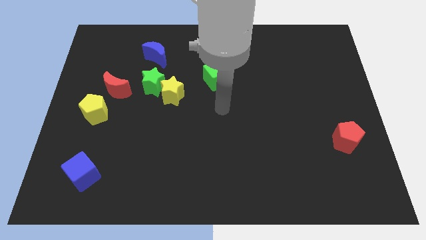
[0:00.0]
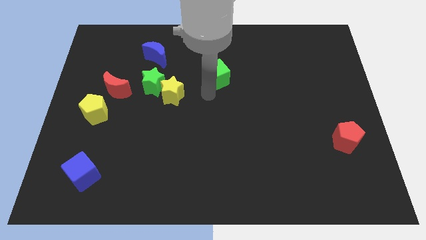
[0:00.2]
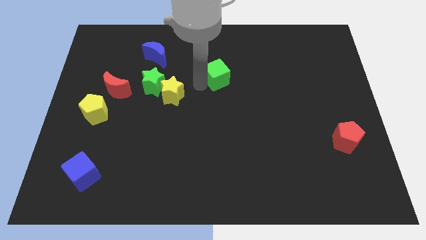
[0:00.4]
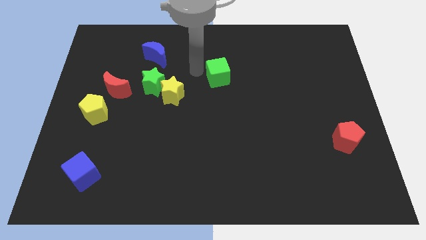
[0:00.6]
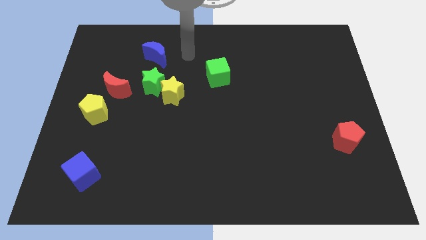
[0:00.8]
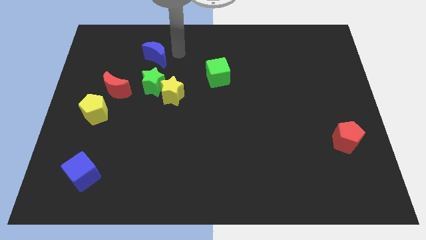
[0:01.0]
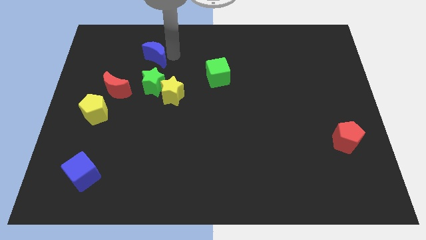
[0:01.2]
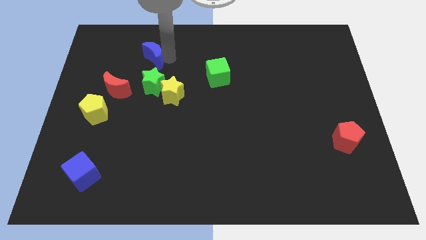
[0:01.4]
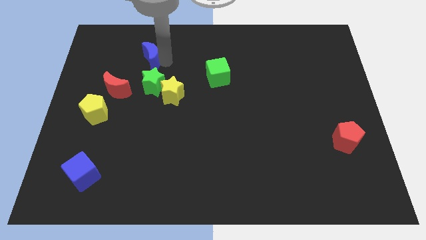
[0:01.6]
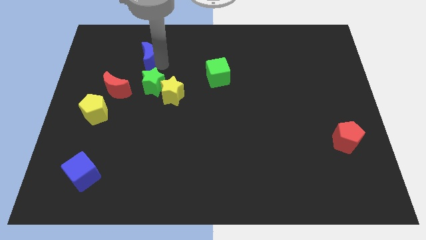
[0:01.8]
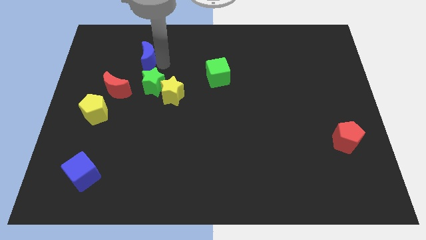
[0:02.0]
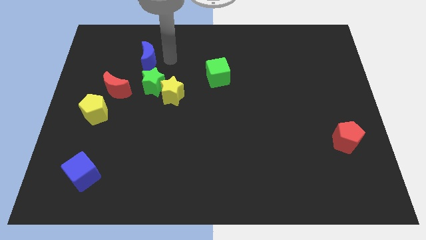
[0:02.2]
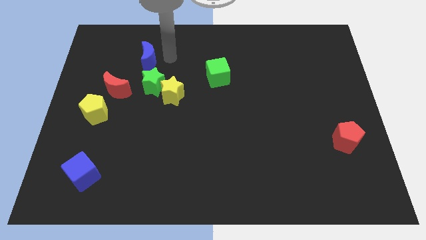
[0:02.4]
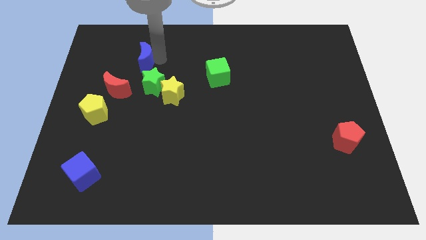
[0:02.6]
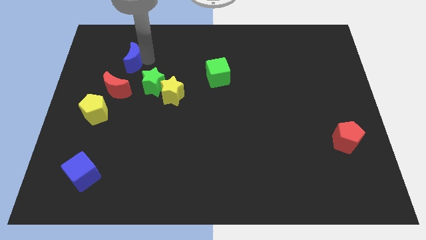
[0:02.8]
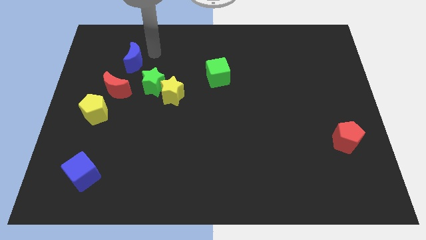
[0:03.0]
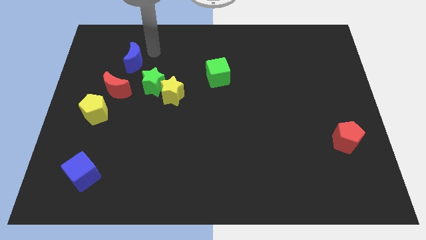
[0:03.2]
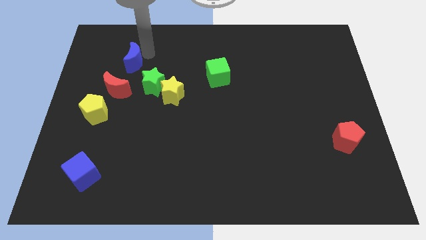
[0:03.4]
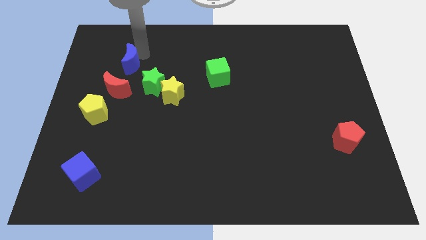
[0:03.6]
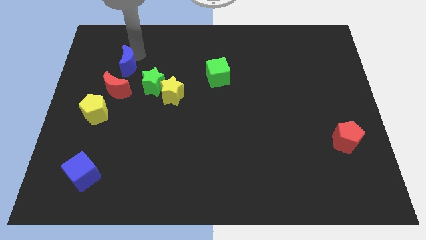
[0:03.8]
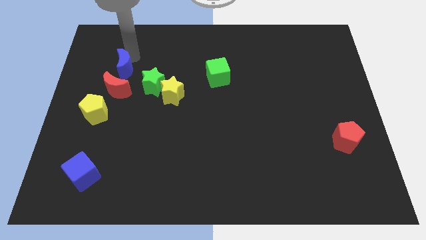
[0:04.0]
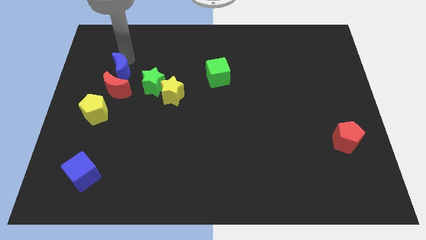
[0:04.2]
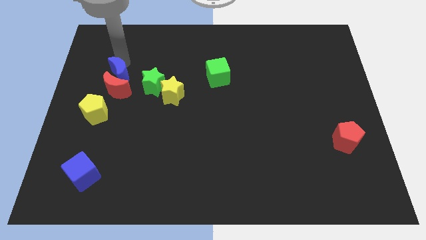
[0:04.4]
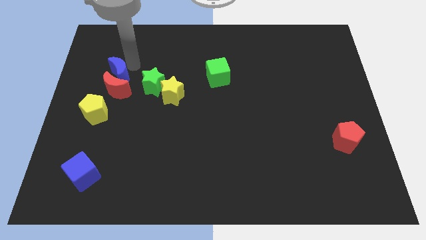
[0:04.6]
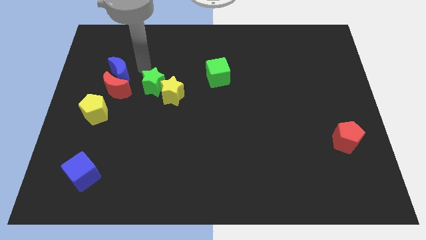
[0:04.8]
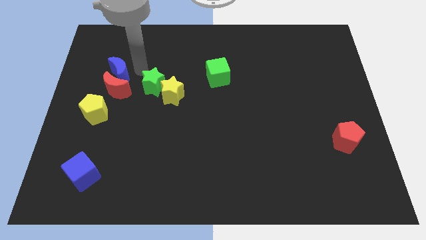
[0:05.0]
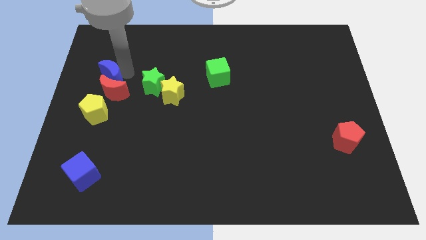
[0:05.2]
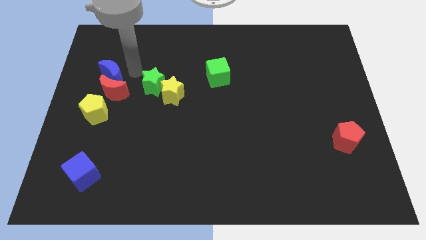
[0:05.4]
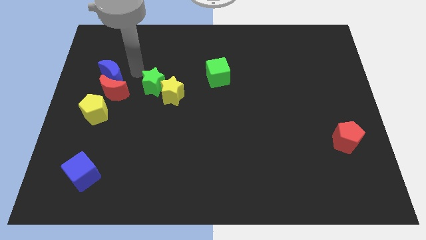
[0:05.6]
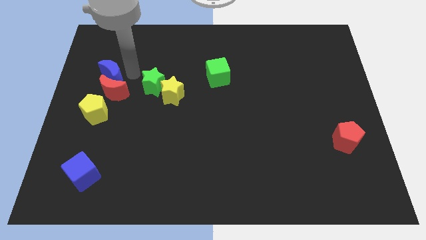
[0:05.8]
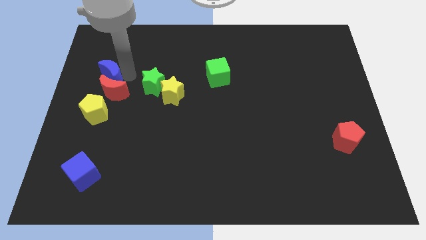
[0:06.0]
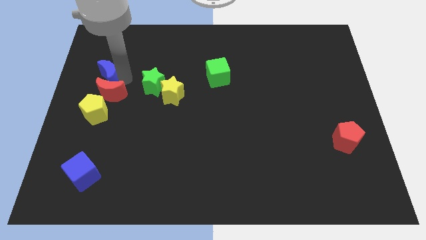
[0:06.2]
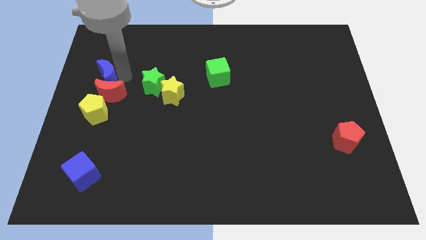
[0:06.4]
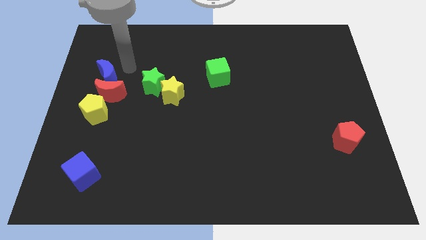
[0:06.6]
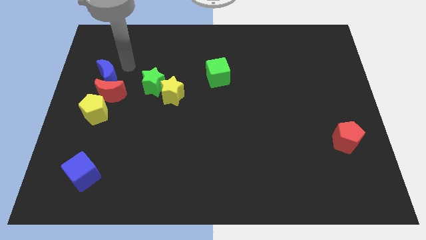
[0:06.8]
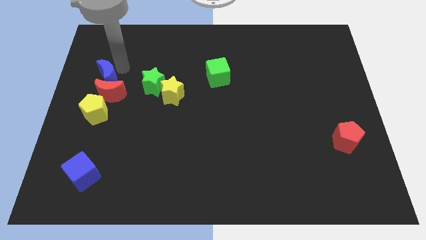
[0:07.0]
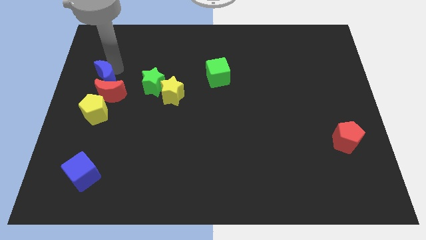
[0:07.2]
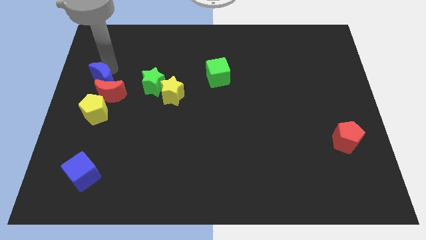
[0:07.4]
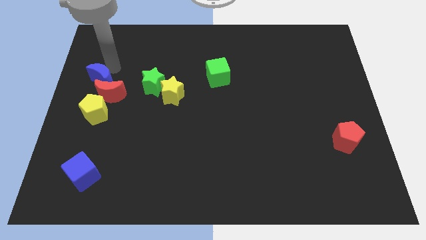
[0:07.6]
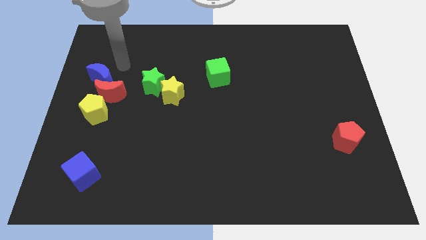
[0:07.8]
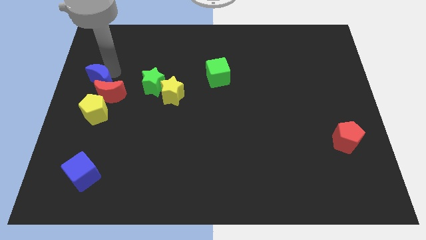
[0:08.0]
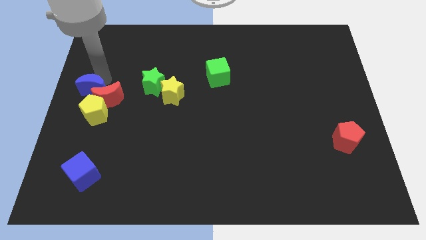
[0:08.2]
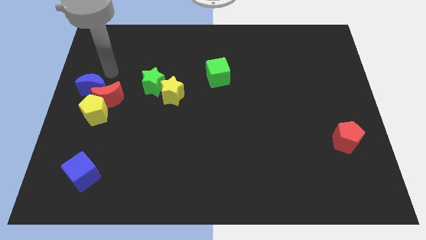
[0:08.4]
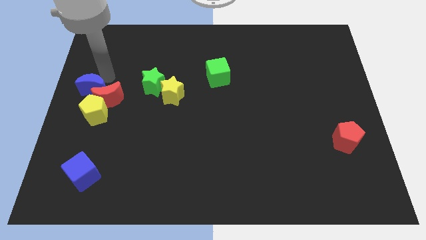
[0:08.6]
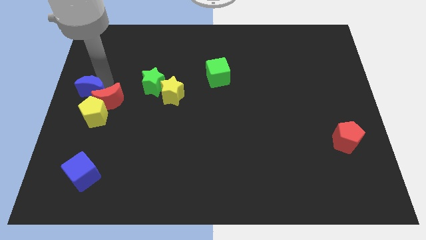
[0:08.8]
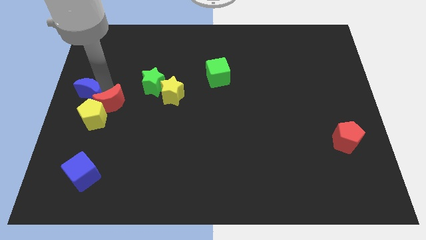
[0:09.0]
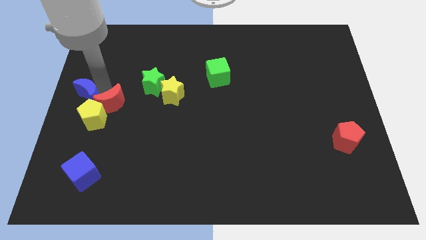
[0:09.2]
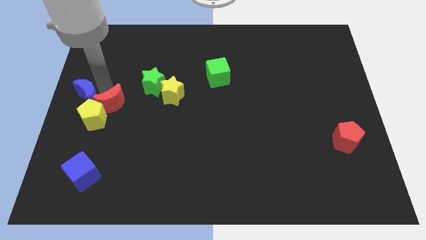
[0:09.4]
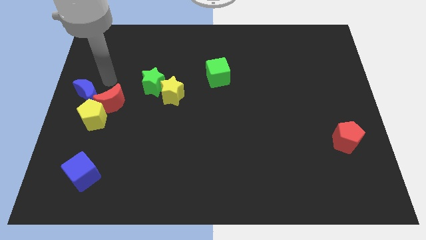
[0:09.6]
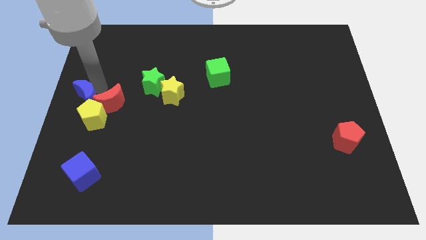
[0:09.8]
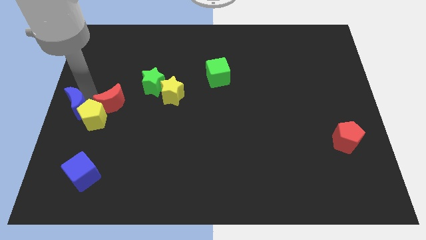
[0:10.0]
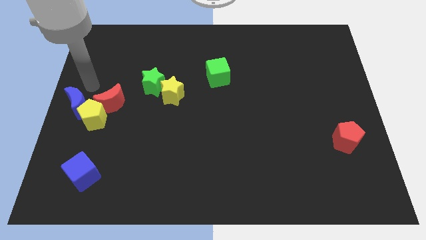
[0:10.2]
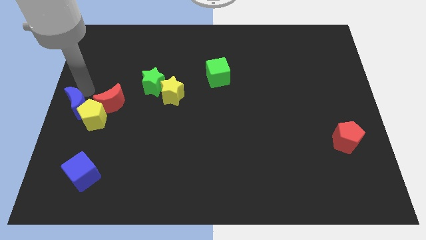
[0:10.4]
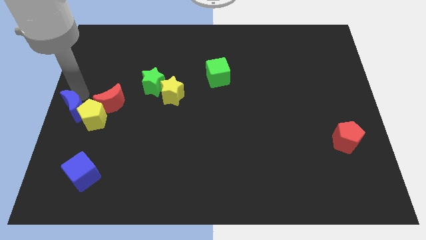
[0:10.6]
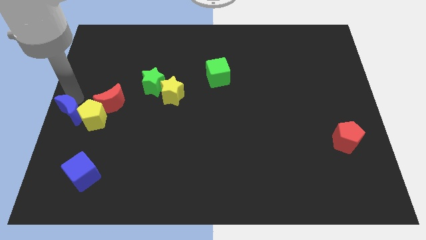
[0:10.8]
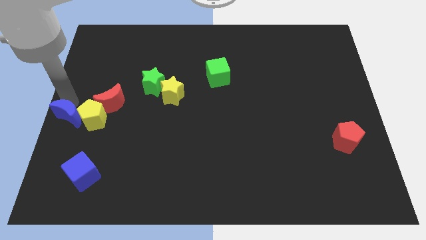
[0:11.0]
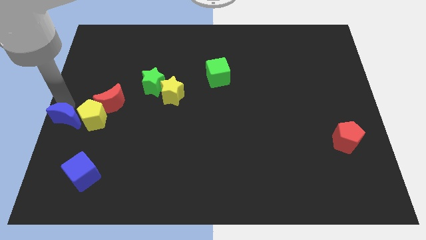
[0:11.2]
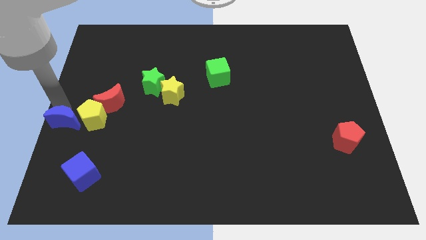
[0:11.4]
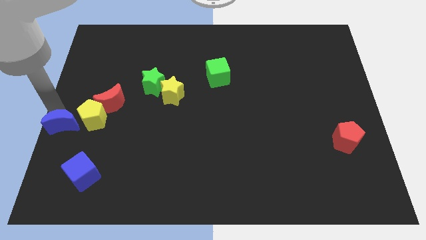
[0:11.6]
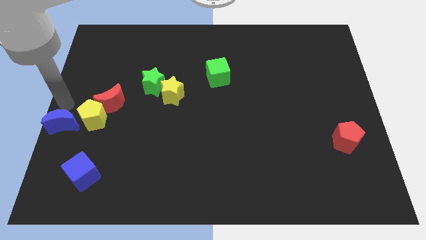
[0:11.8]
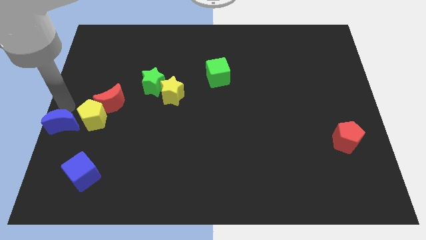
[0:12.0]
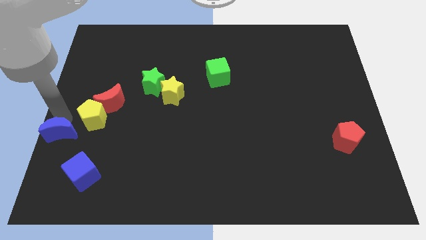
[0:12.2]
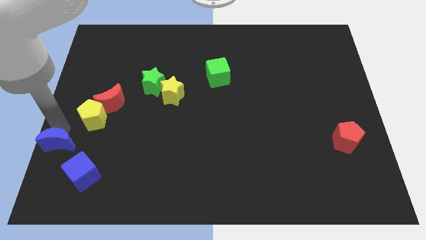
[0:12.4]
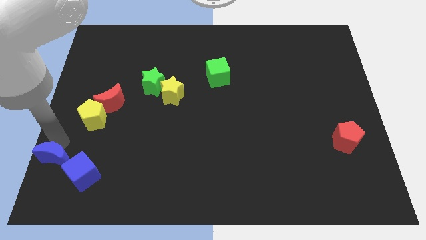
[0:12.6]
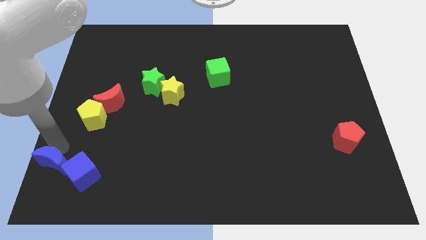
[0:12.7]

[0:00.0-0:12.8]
slide the blue moon to the bottom left of the board
